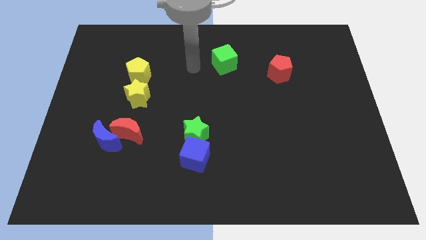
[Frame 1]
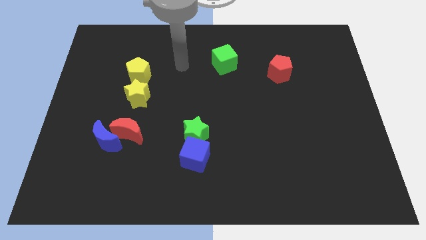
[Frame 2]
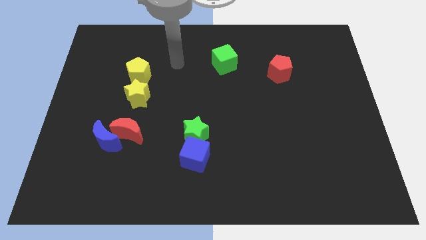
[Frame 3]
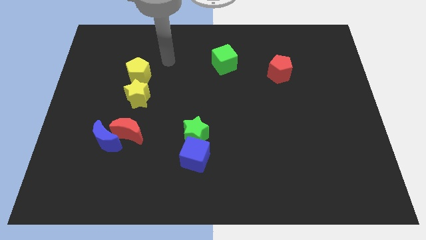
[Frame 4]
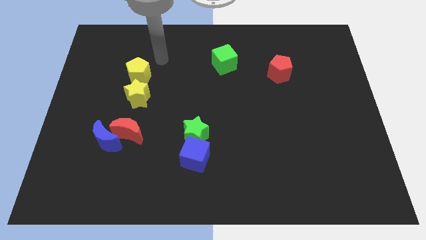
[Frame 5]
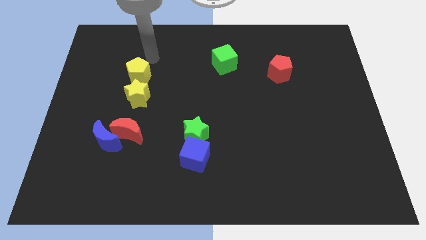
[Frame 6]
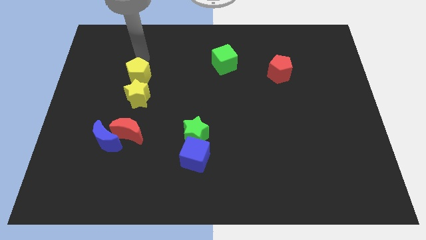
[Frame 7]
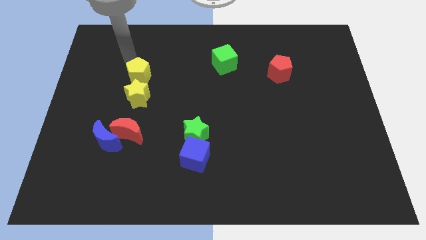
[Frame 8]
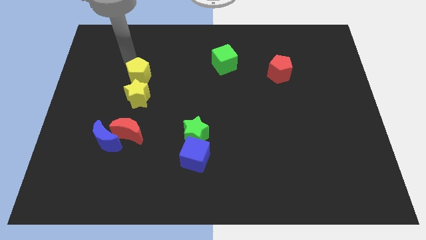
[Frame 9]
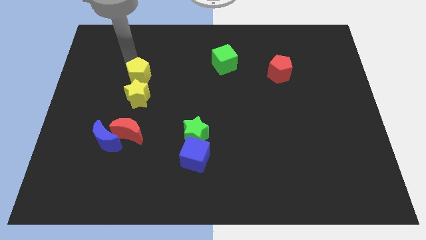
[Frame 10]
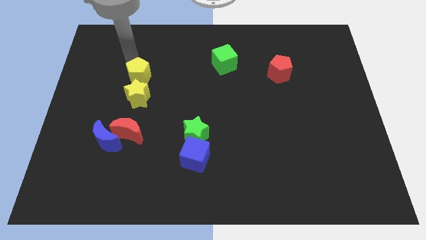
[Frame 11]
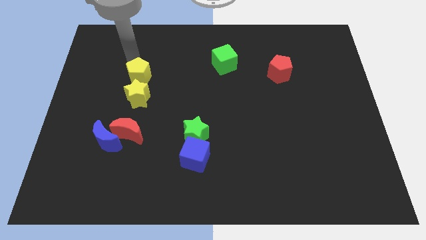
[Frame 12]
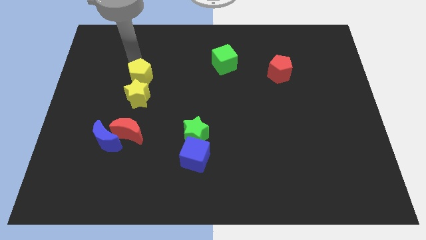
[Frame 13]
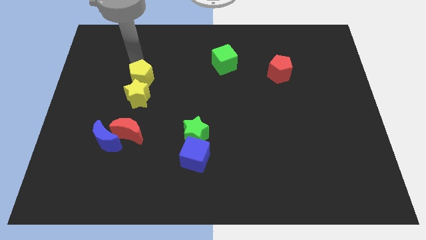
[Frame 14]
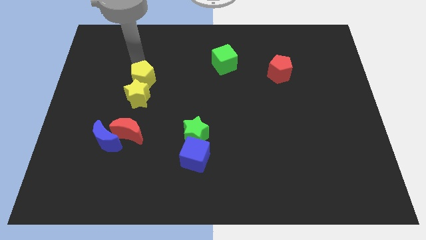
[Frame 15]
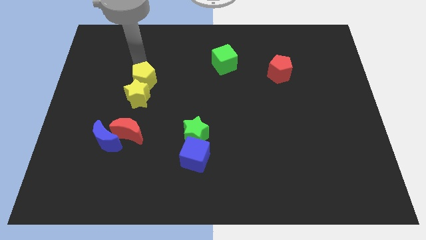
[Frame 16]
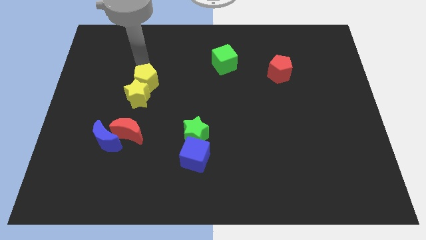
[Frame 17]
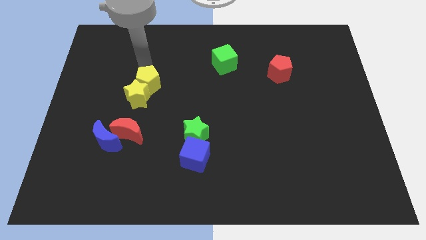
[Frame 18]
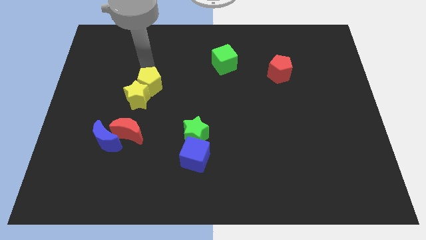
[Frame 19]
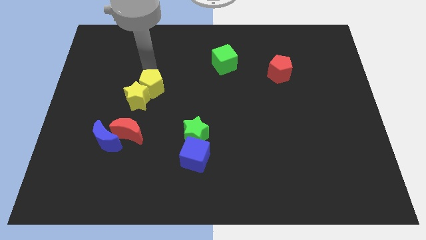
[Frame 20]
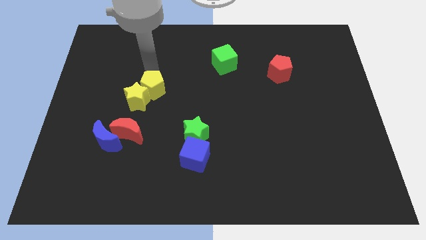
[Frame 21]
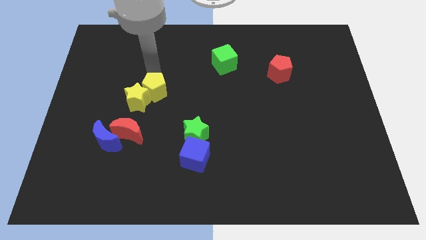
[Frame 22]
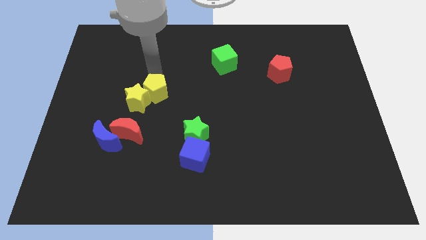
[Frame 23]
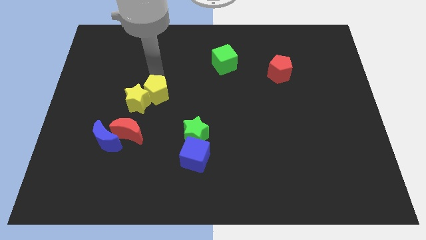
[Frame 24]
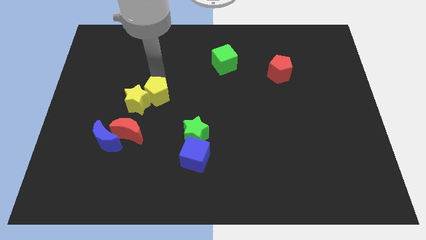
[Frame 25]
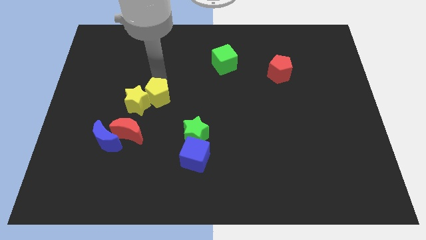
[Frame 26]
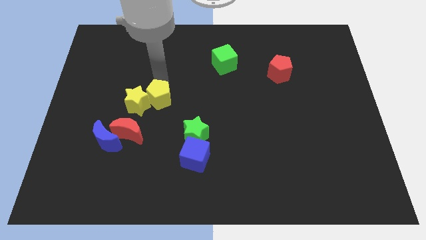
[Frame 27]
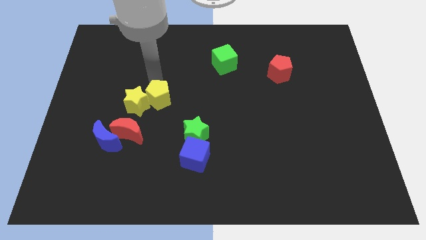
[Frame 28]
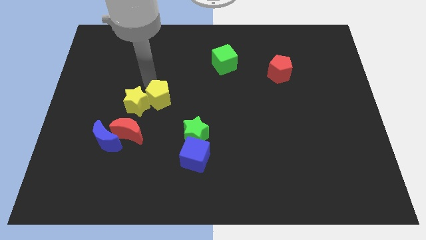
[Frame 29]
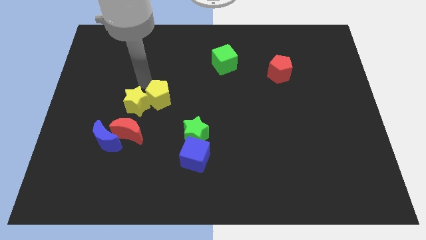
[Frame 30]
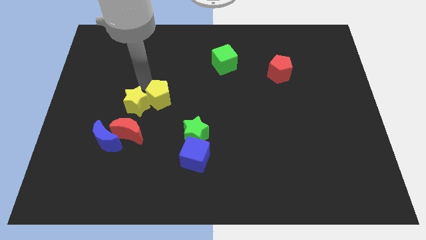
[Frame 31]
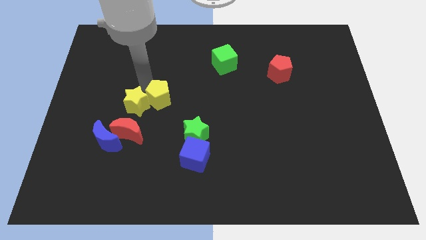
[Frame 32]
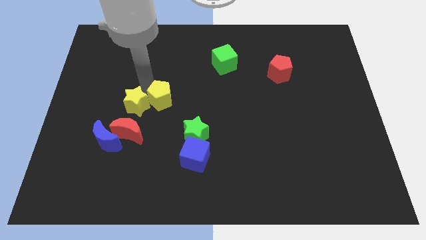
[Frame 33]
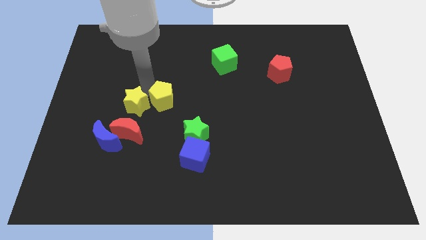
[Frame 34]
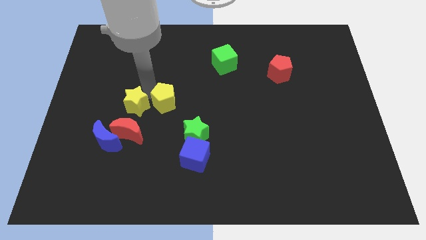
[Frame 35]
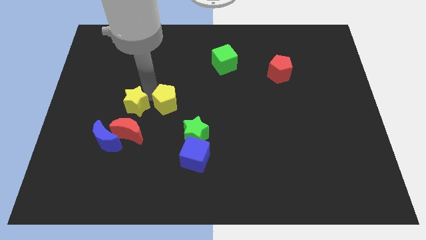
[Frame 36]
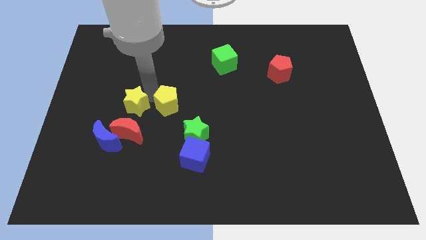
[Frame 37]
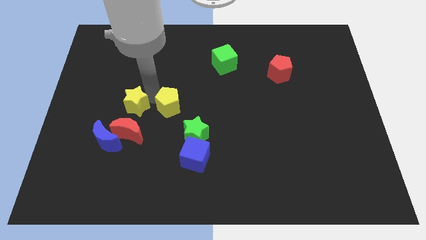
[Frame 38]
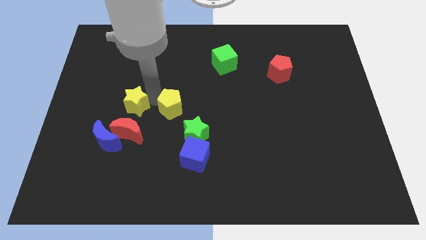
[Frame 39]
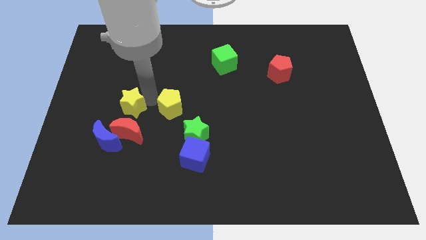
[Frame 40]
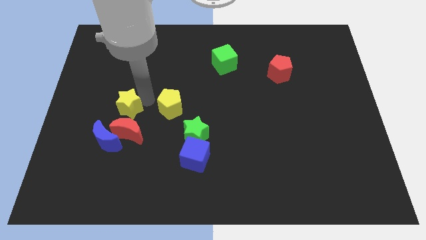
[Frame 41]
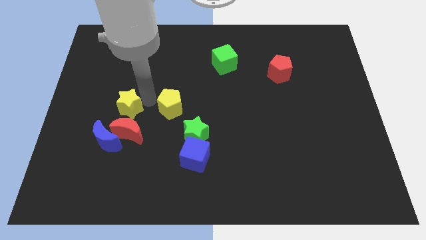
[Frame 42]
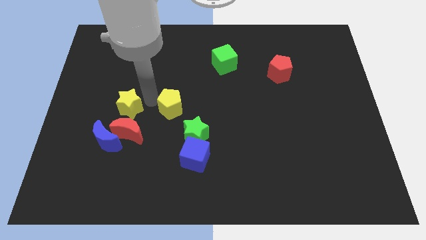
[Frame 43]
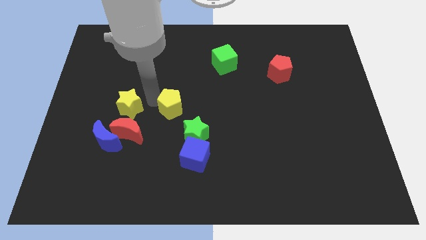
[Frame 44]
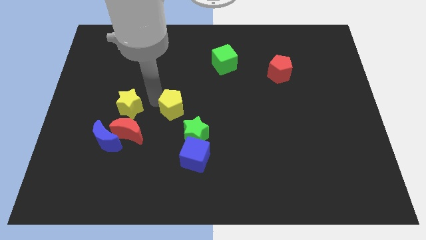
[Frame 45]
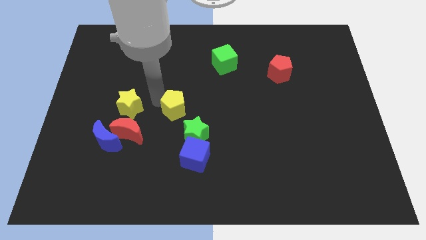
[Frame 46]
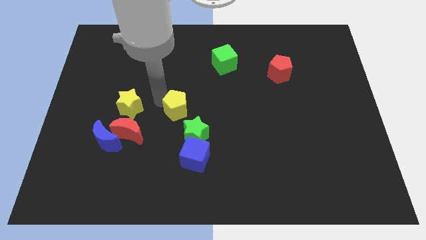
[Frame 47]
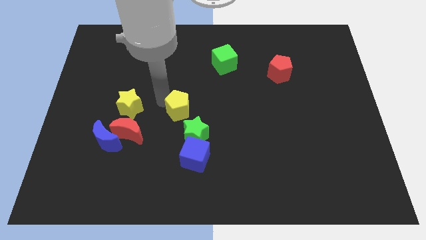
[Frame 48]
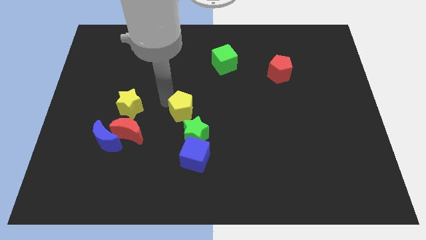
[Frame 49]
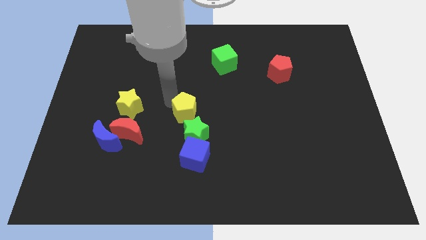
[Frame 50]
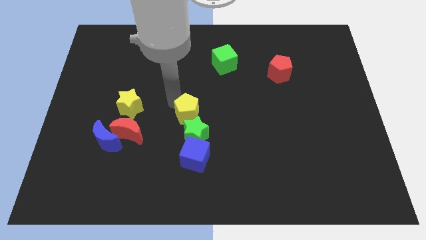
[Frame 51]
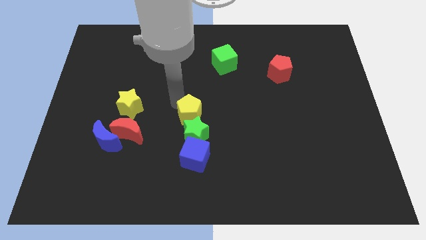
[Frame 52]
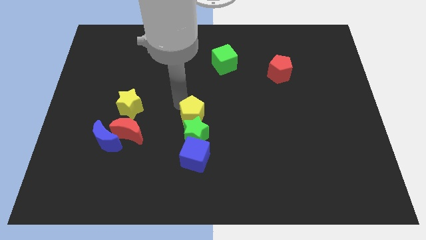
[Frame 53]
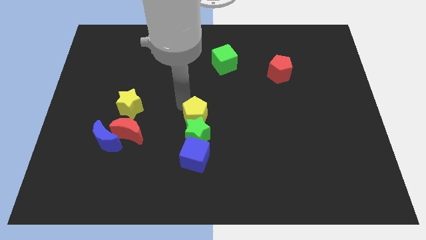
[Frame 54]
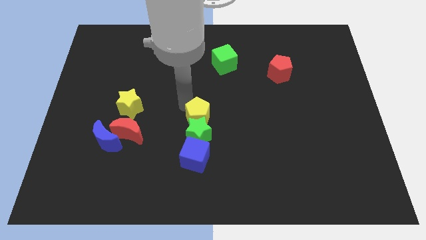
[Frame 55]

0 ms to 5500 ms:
push the yellow pentagon downwards and to the right

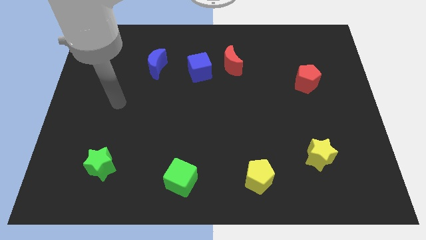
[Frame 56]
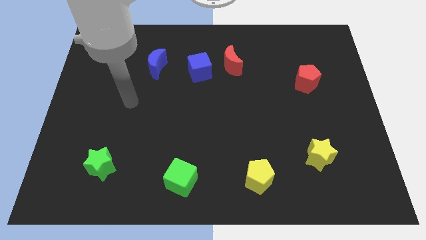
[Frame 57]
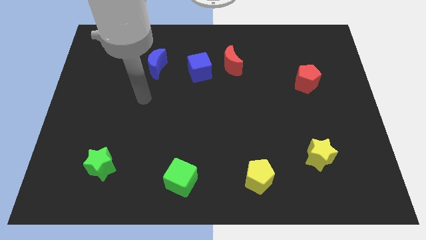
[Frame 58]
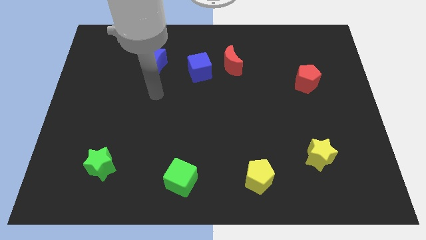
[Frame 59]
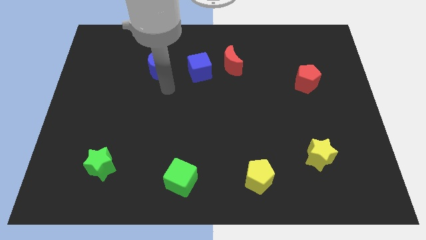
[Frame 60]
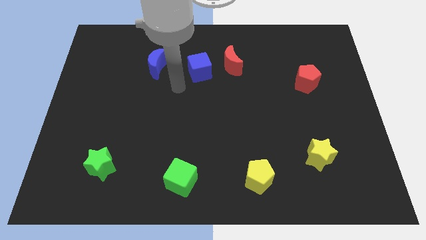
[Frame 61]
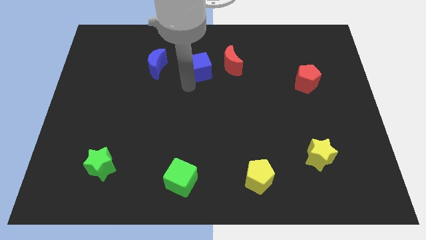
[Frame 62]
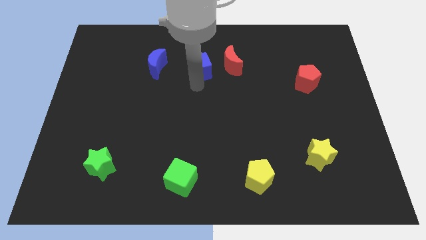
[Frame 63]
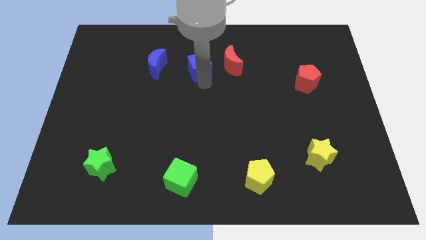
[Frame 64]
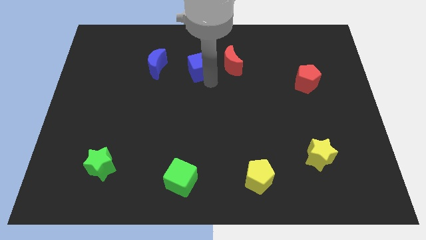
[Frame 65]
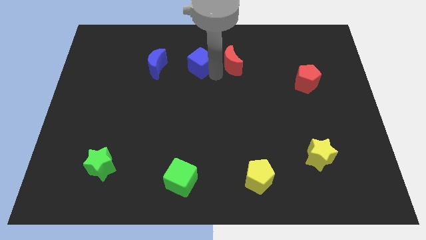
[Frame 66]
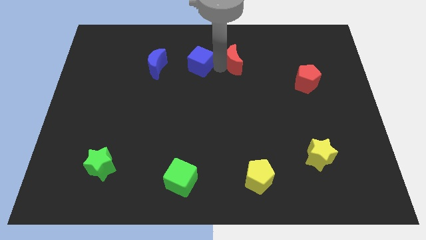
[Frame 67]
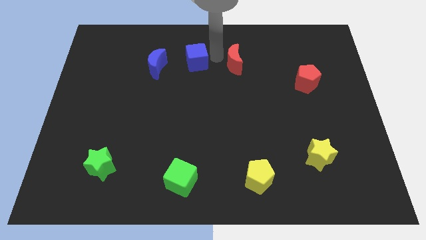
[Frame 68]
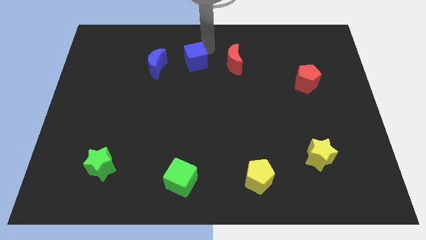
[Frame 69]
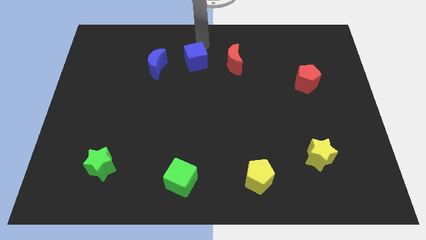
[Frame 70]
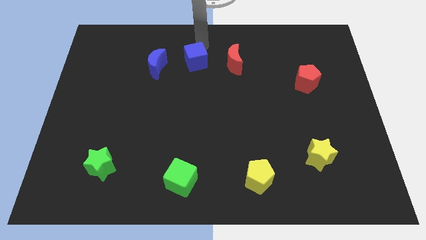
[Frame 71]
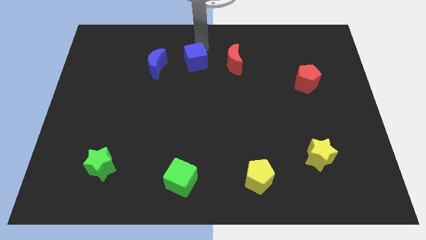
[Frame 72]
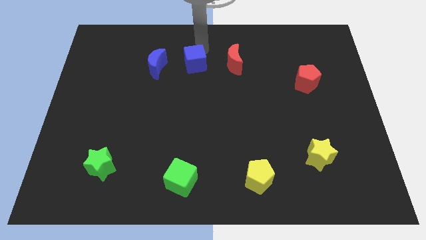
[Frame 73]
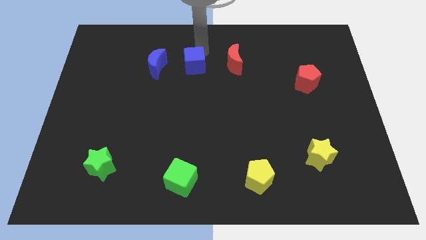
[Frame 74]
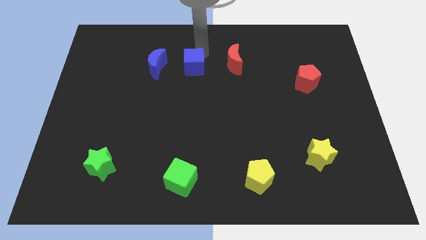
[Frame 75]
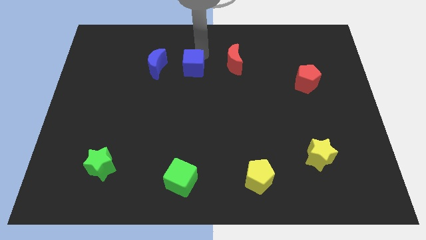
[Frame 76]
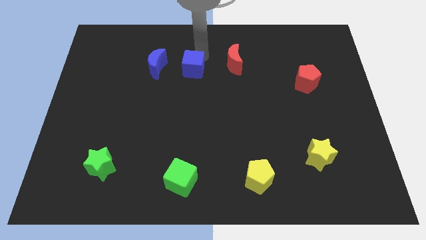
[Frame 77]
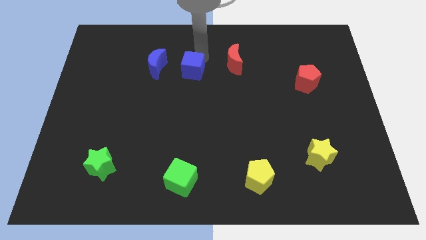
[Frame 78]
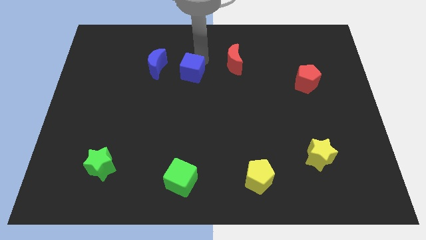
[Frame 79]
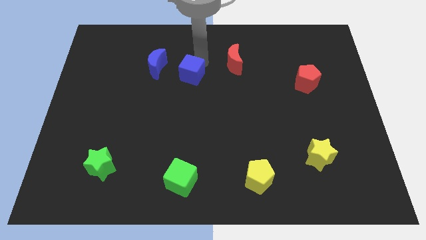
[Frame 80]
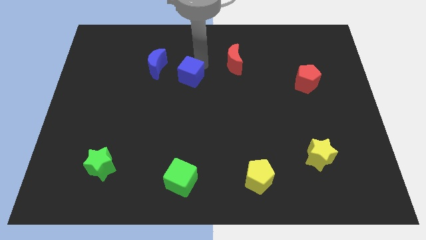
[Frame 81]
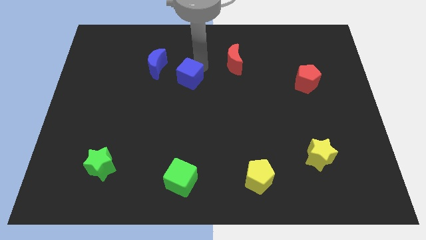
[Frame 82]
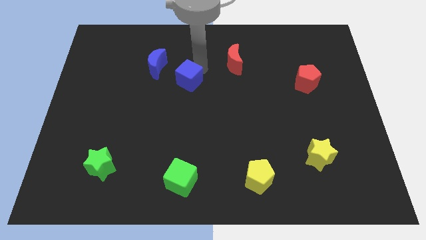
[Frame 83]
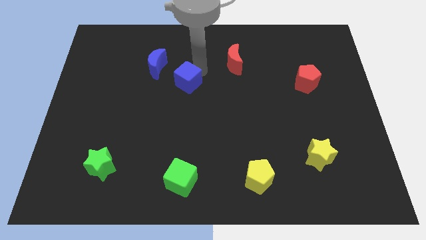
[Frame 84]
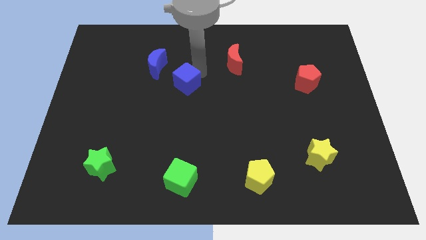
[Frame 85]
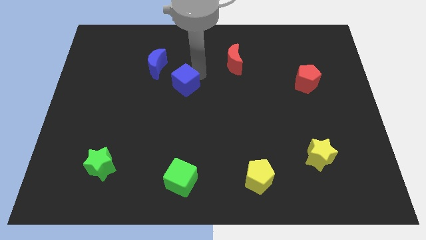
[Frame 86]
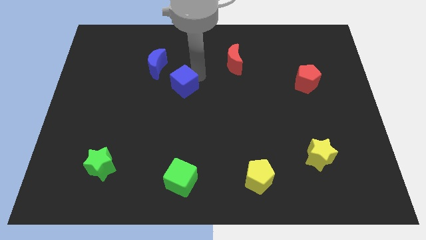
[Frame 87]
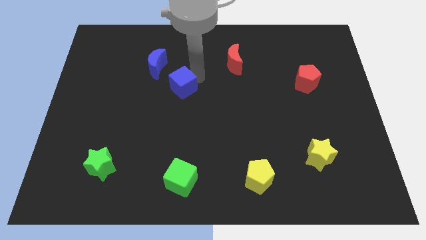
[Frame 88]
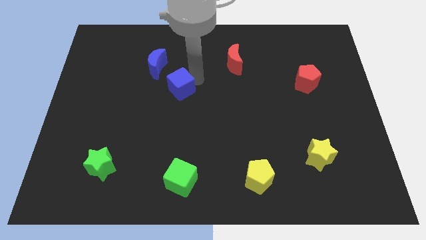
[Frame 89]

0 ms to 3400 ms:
push the blue cube down and left slightly
